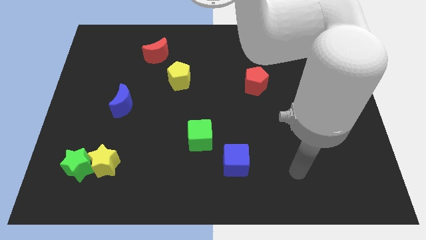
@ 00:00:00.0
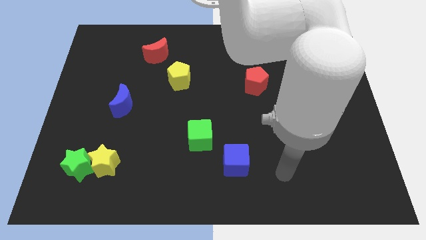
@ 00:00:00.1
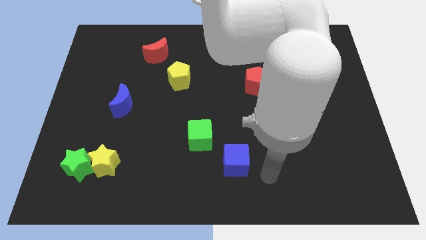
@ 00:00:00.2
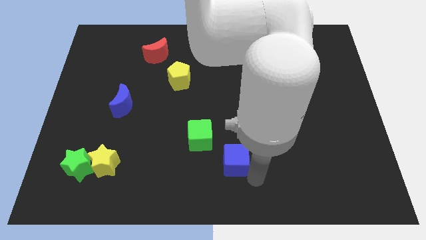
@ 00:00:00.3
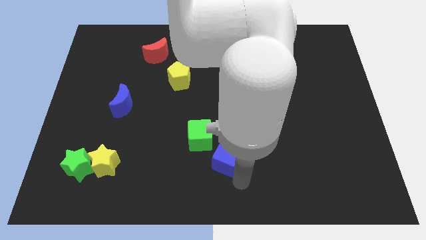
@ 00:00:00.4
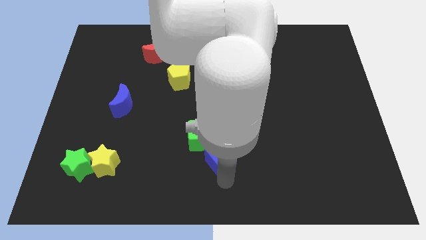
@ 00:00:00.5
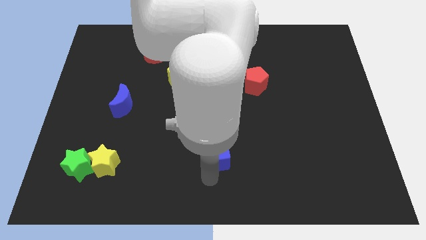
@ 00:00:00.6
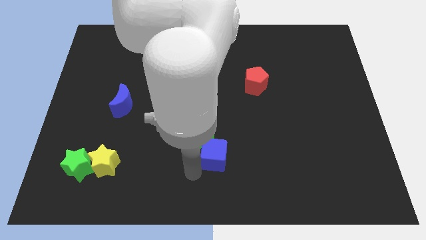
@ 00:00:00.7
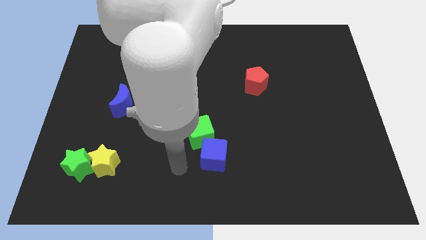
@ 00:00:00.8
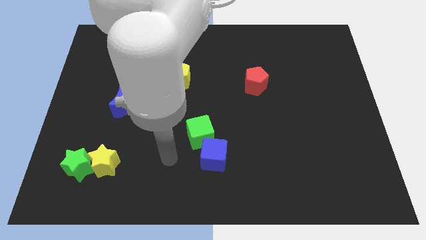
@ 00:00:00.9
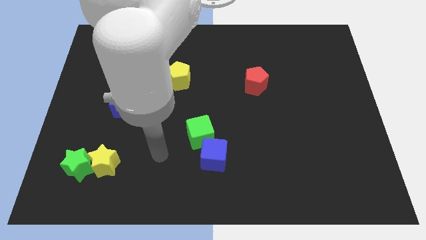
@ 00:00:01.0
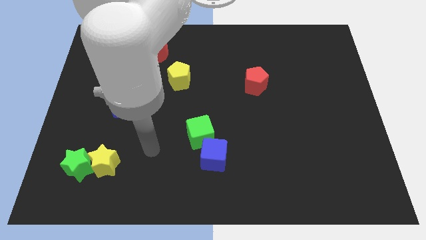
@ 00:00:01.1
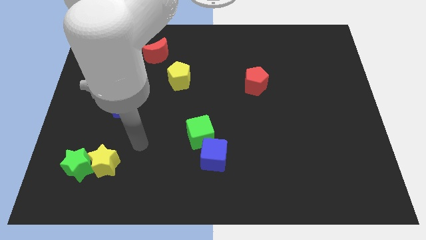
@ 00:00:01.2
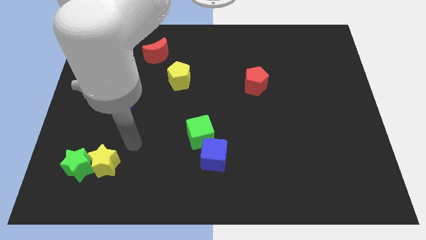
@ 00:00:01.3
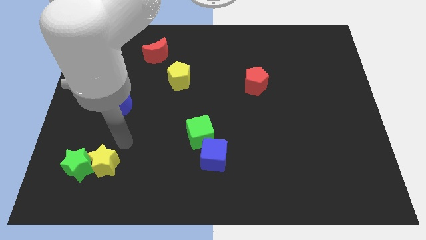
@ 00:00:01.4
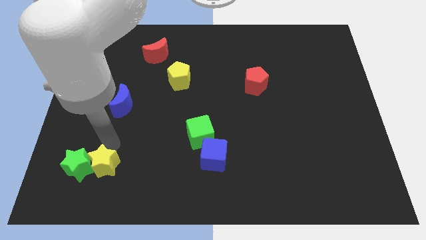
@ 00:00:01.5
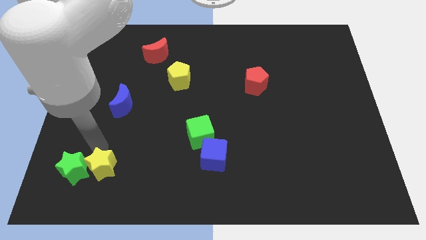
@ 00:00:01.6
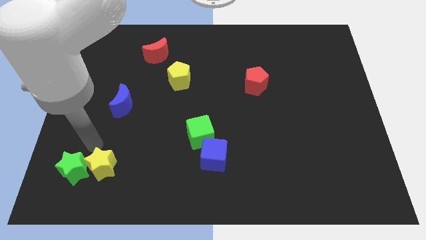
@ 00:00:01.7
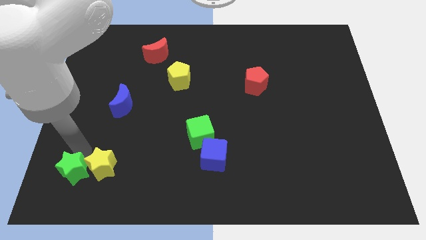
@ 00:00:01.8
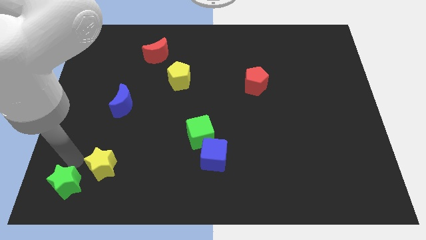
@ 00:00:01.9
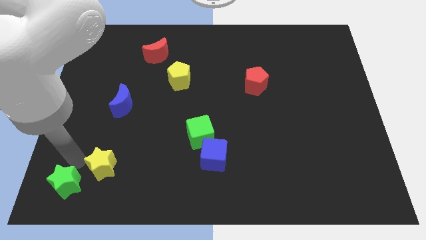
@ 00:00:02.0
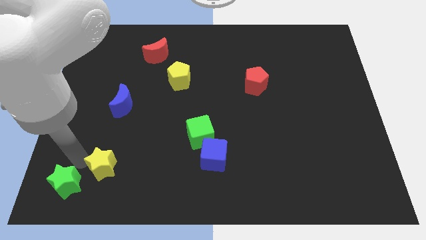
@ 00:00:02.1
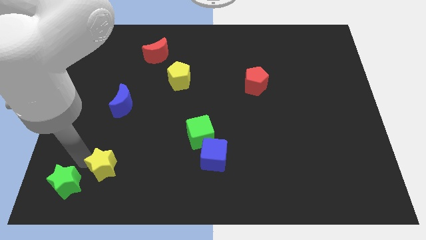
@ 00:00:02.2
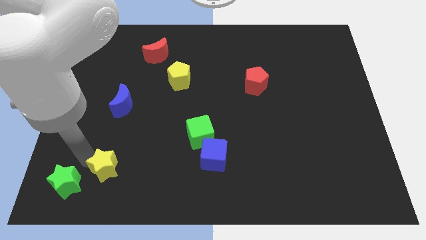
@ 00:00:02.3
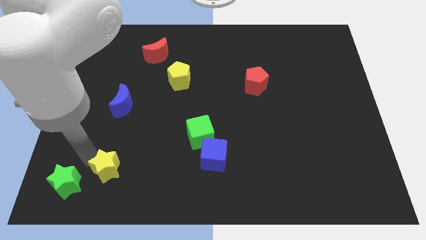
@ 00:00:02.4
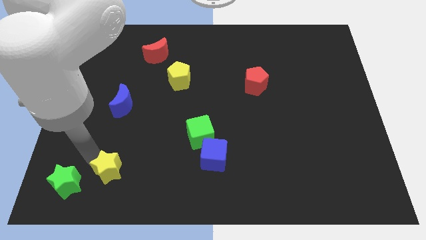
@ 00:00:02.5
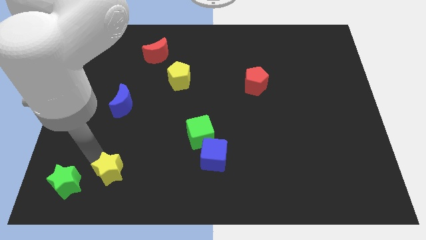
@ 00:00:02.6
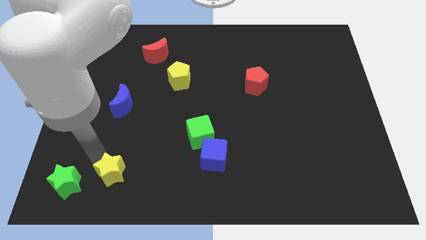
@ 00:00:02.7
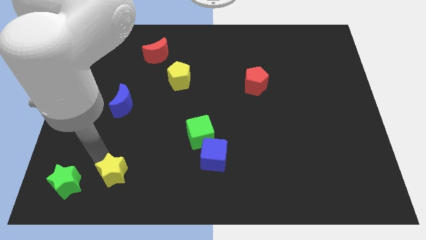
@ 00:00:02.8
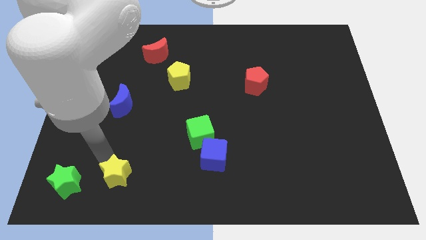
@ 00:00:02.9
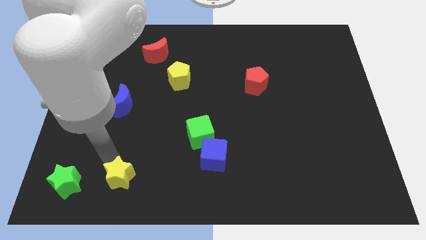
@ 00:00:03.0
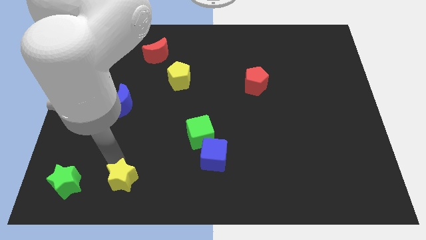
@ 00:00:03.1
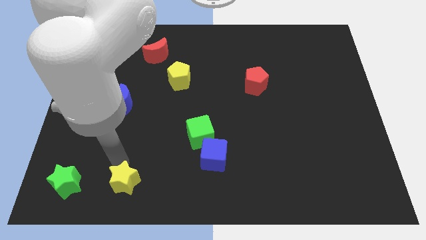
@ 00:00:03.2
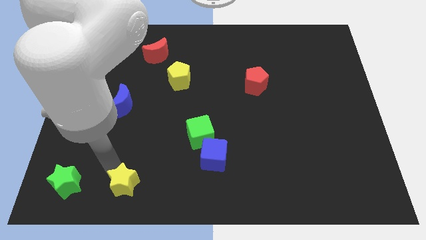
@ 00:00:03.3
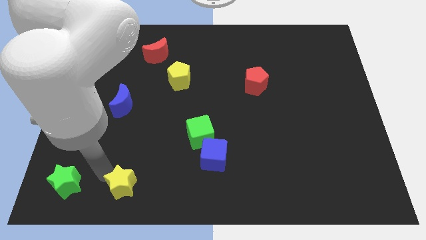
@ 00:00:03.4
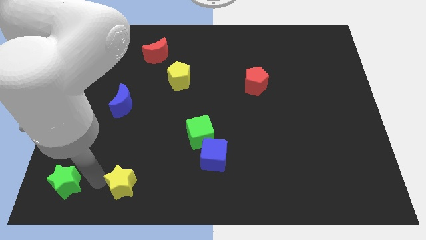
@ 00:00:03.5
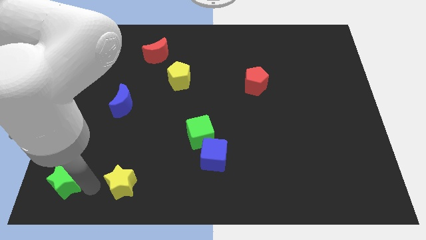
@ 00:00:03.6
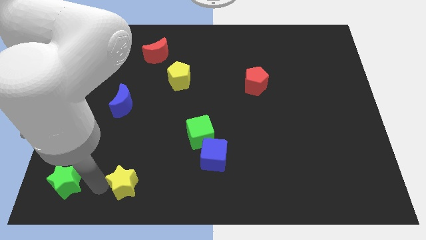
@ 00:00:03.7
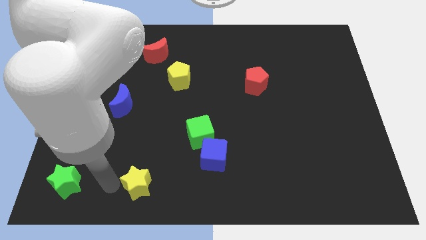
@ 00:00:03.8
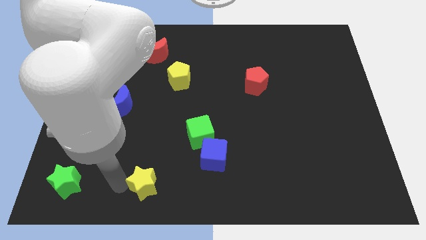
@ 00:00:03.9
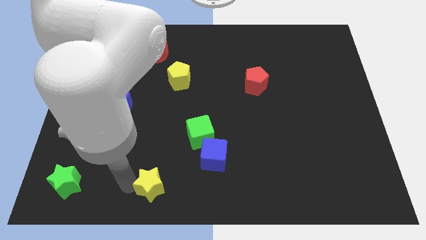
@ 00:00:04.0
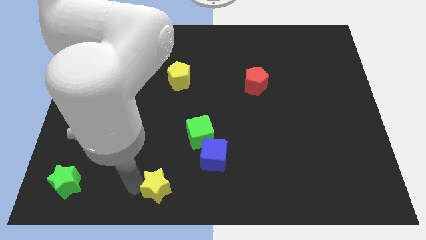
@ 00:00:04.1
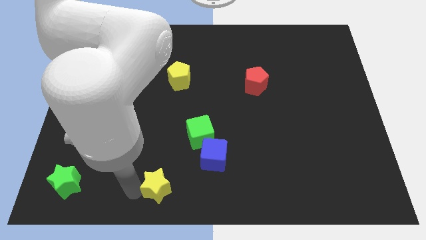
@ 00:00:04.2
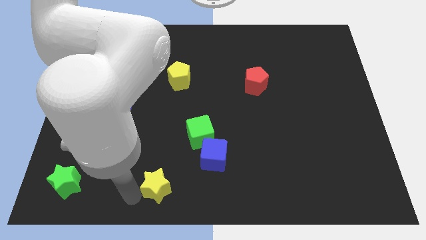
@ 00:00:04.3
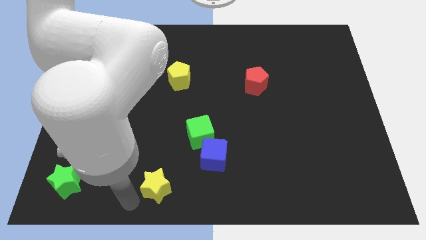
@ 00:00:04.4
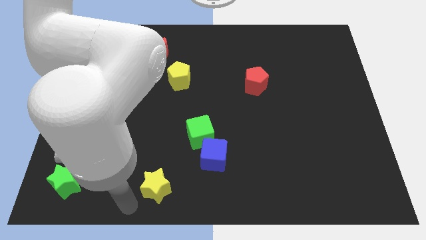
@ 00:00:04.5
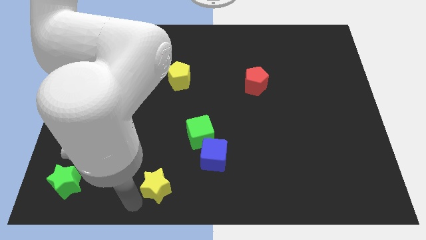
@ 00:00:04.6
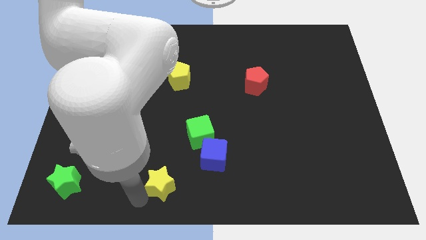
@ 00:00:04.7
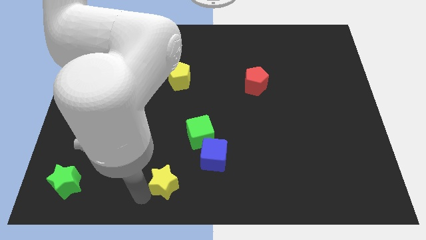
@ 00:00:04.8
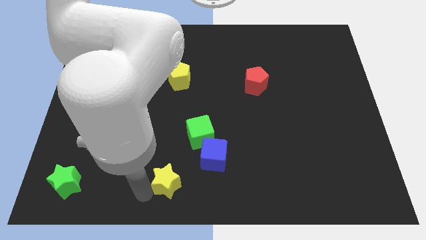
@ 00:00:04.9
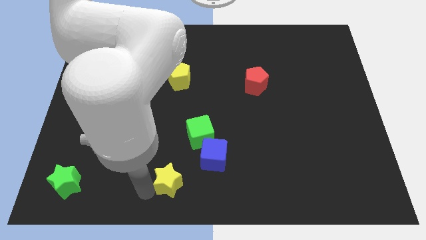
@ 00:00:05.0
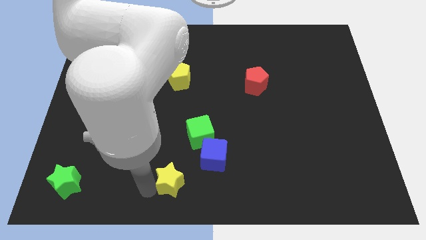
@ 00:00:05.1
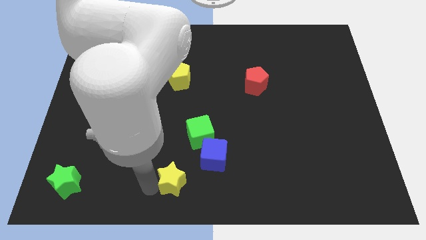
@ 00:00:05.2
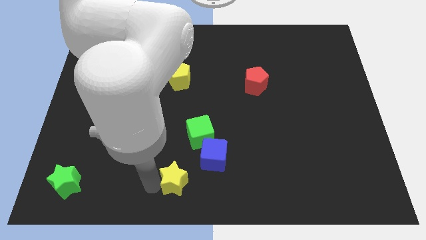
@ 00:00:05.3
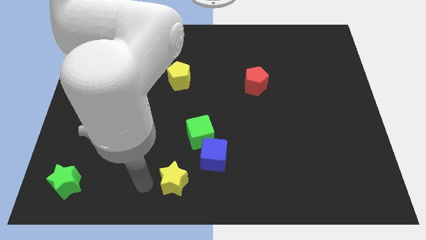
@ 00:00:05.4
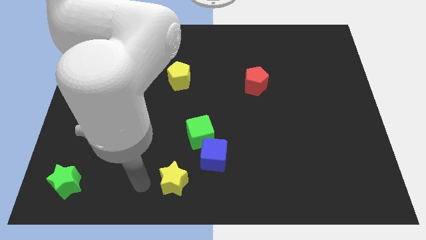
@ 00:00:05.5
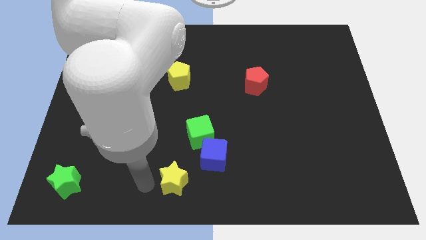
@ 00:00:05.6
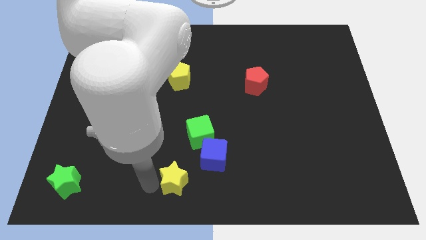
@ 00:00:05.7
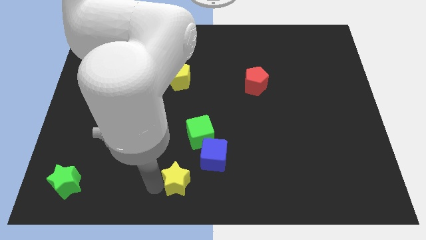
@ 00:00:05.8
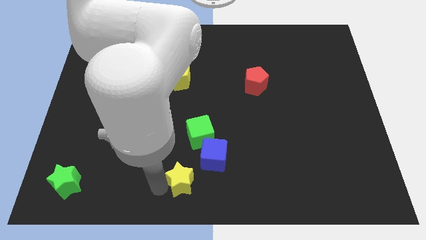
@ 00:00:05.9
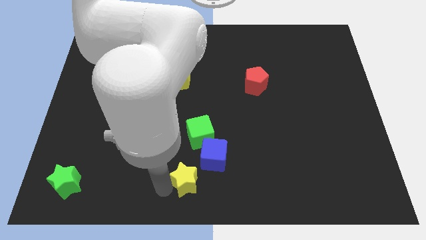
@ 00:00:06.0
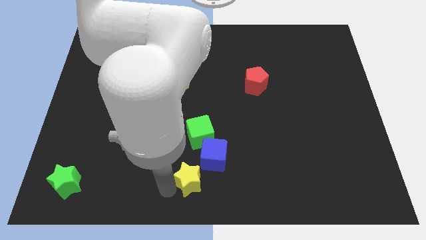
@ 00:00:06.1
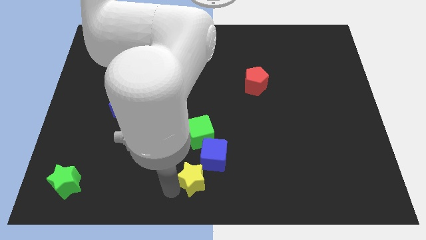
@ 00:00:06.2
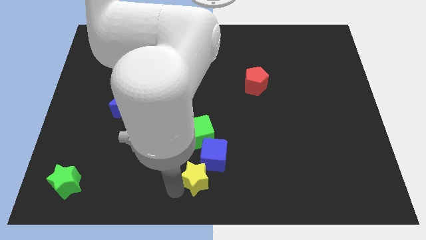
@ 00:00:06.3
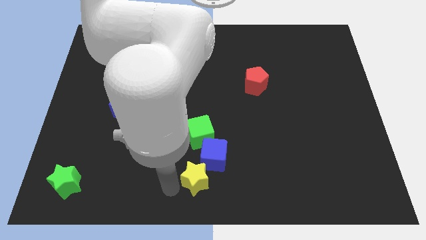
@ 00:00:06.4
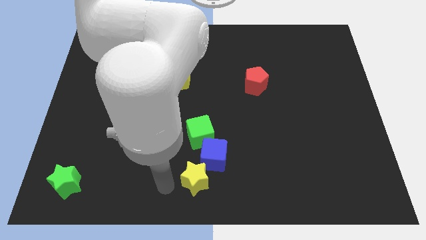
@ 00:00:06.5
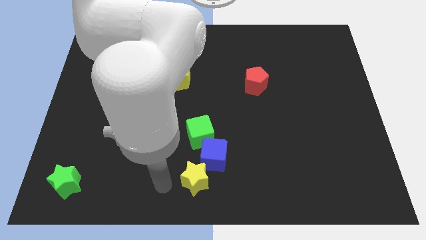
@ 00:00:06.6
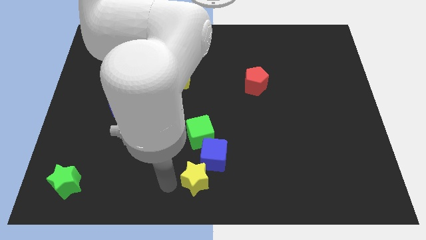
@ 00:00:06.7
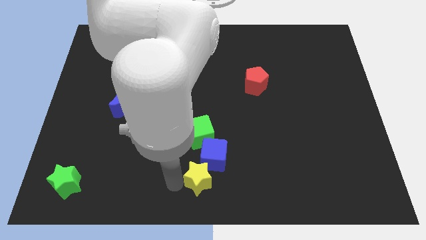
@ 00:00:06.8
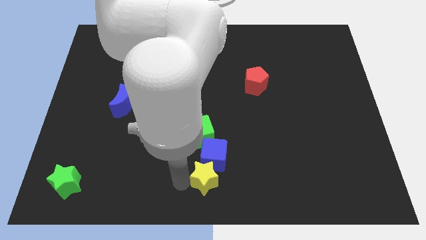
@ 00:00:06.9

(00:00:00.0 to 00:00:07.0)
slide the yellow star to the right

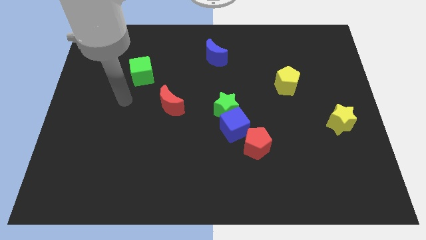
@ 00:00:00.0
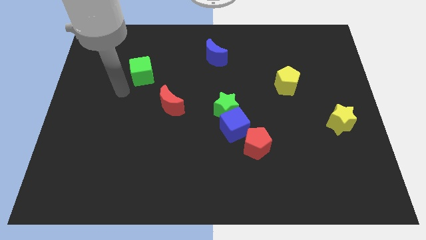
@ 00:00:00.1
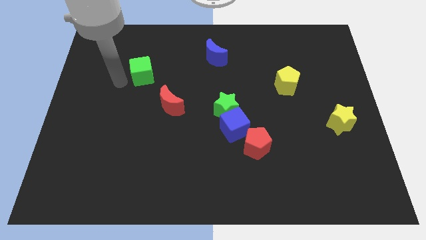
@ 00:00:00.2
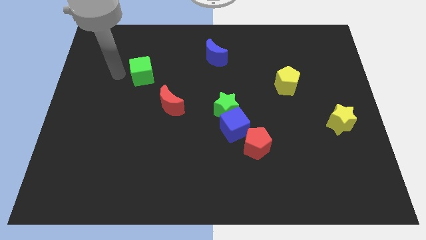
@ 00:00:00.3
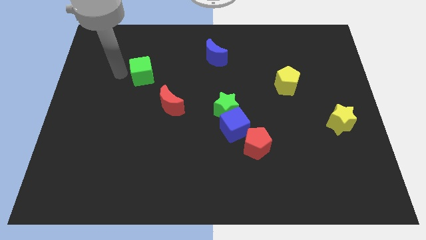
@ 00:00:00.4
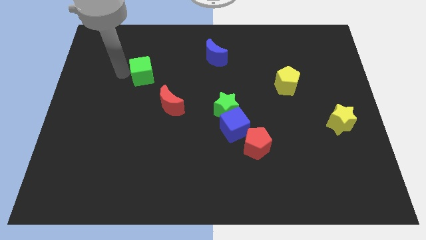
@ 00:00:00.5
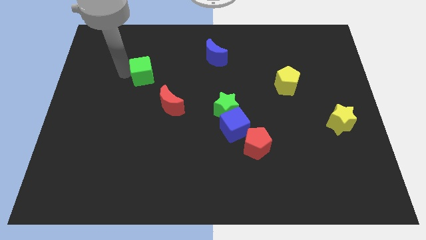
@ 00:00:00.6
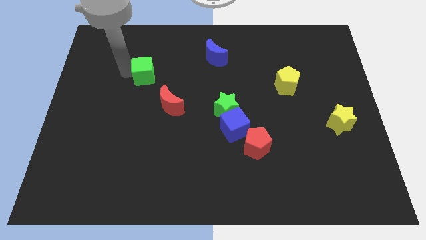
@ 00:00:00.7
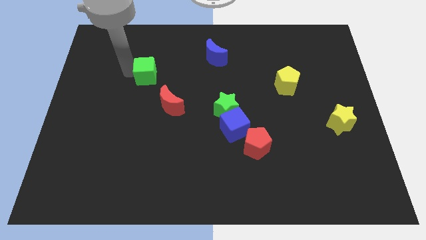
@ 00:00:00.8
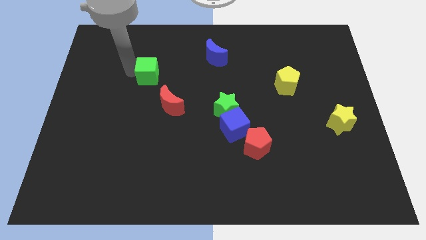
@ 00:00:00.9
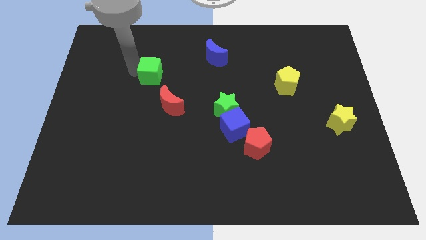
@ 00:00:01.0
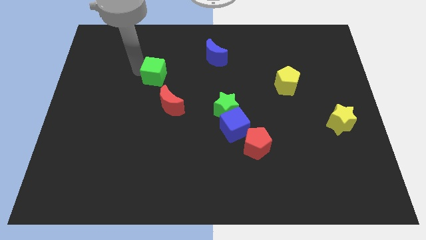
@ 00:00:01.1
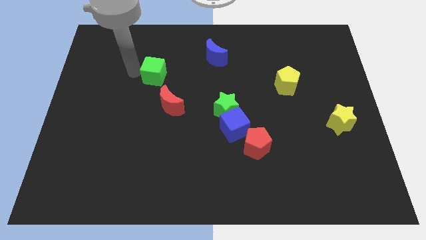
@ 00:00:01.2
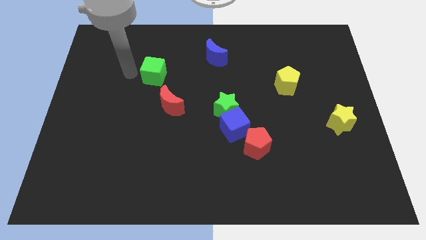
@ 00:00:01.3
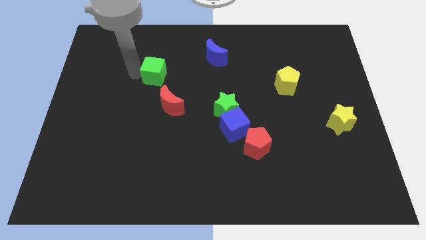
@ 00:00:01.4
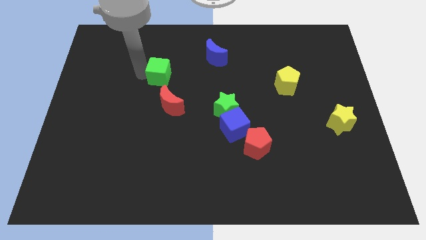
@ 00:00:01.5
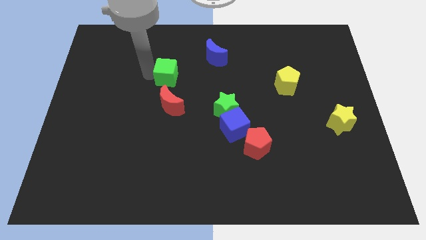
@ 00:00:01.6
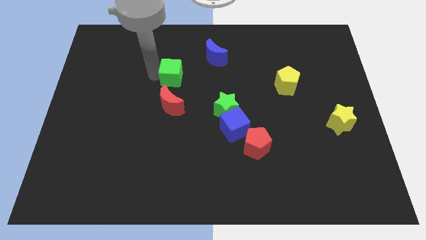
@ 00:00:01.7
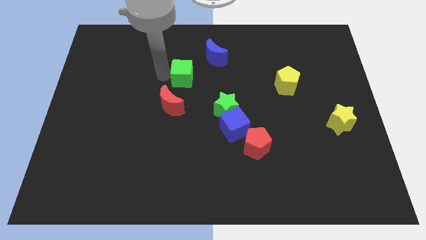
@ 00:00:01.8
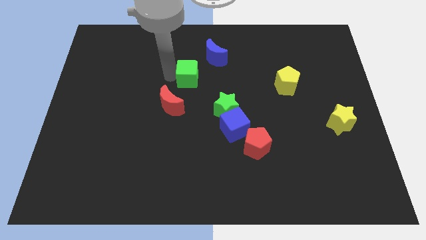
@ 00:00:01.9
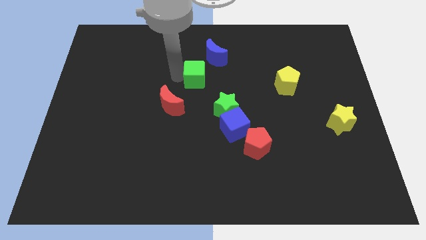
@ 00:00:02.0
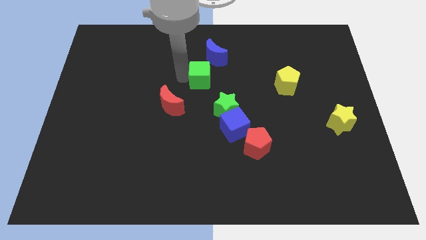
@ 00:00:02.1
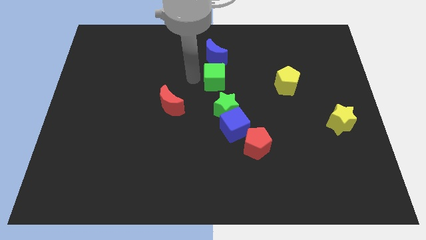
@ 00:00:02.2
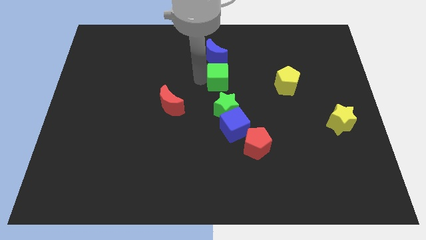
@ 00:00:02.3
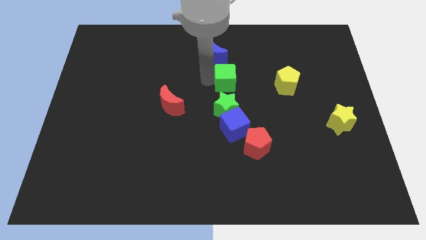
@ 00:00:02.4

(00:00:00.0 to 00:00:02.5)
move the green cube to the right
